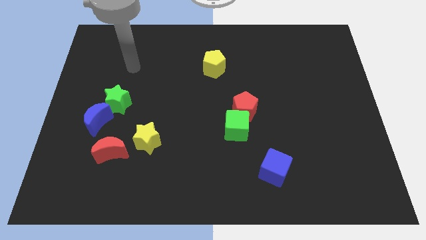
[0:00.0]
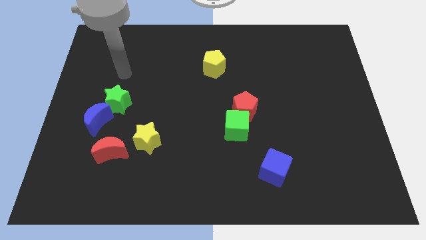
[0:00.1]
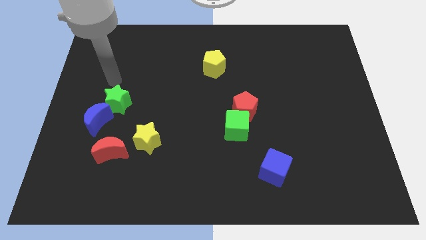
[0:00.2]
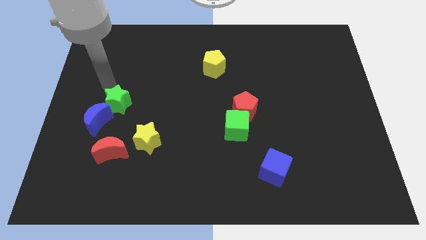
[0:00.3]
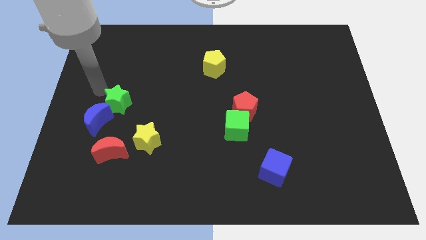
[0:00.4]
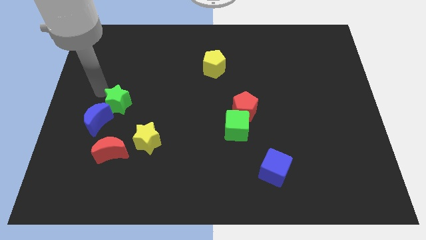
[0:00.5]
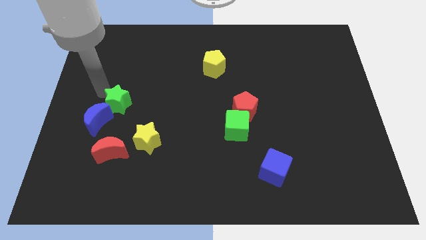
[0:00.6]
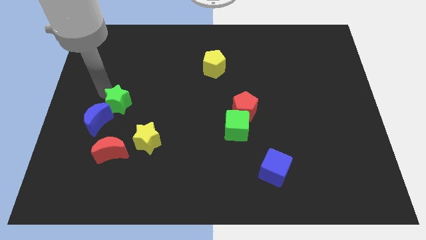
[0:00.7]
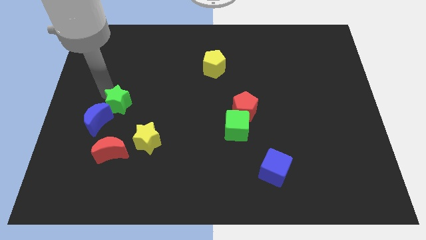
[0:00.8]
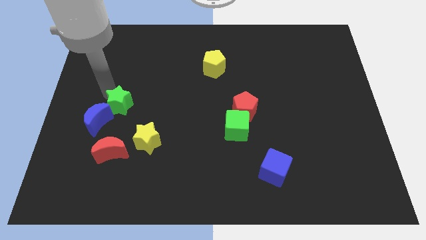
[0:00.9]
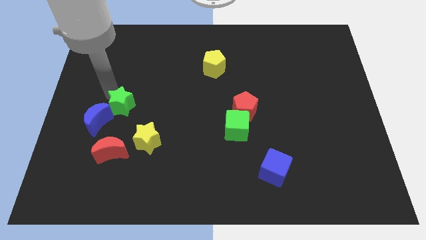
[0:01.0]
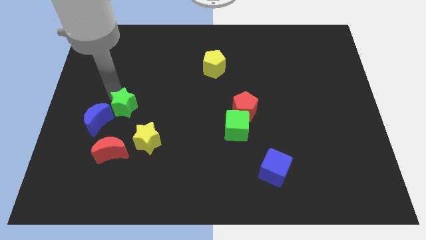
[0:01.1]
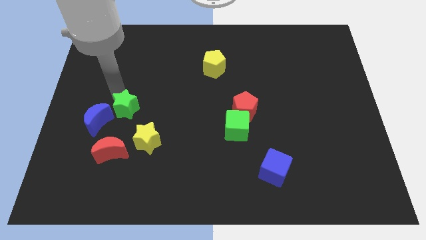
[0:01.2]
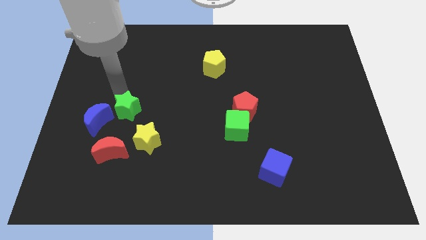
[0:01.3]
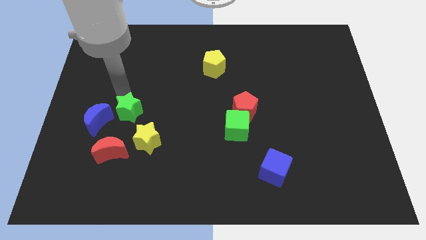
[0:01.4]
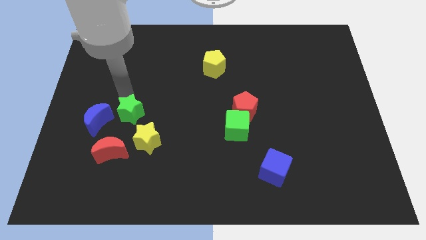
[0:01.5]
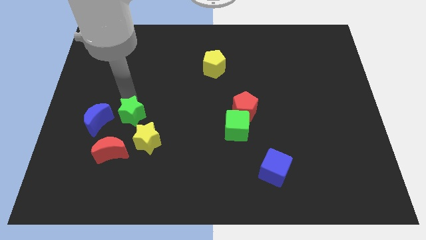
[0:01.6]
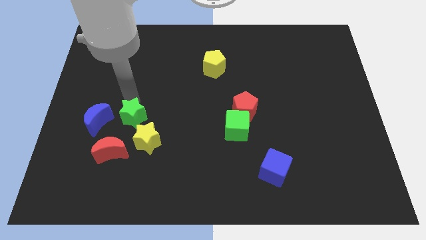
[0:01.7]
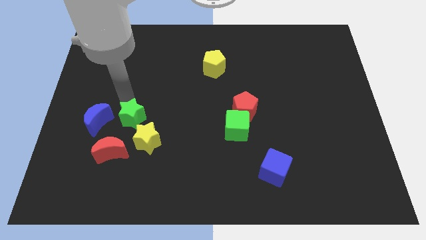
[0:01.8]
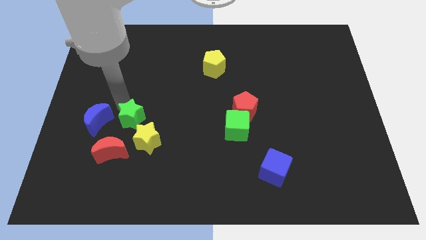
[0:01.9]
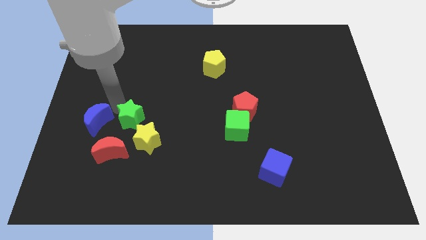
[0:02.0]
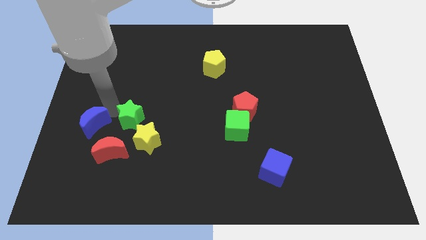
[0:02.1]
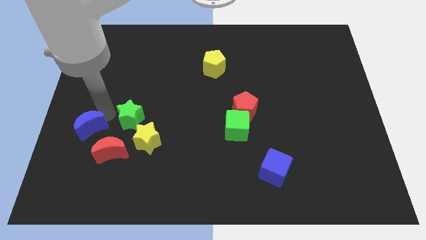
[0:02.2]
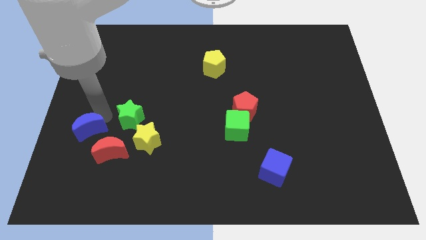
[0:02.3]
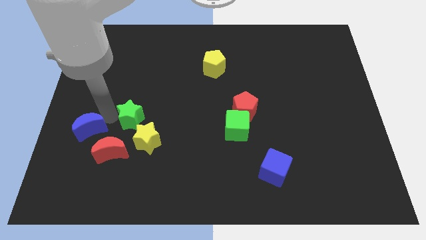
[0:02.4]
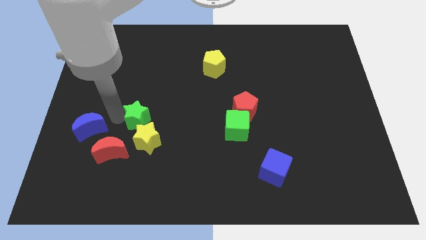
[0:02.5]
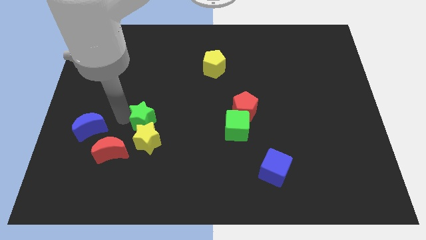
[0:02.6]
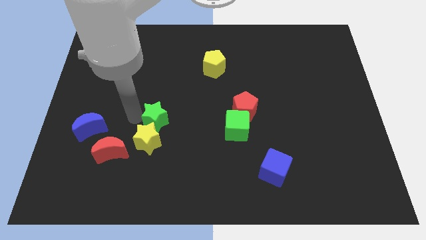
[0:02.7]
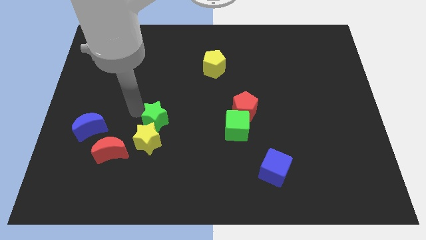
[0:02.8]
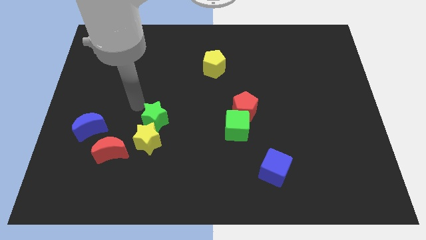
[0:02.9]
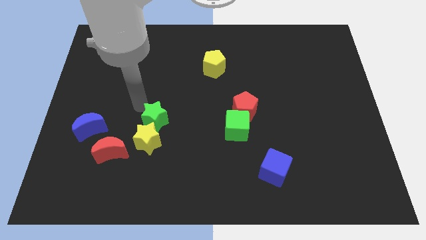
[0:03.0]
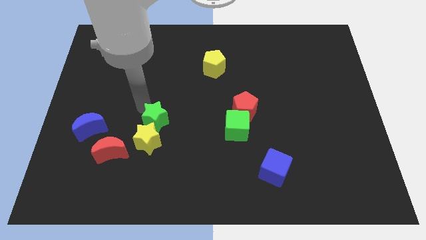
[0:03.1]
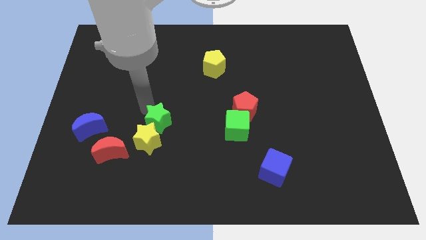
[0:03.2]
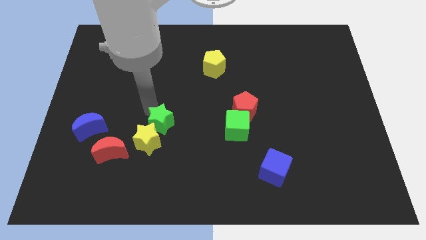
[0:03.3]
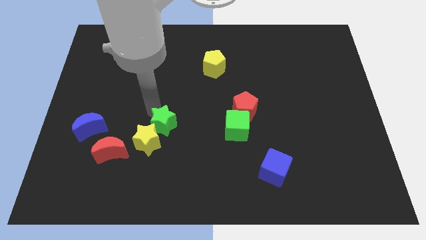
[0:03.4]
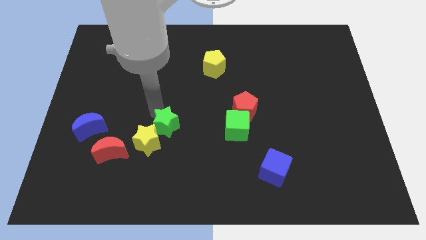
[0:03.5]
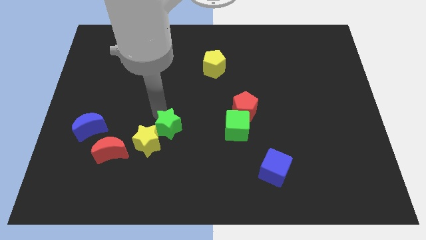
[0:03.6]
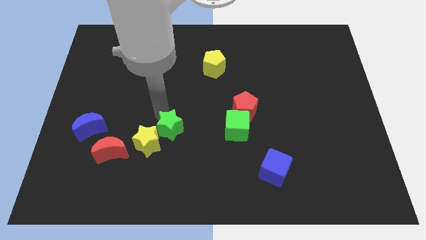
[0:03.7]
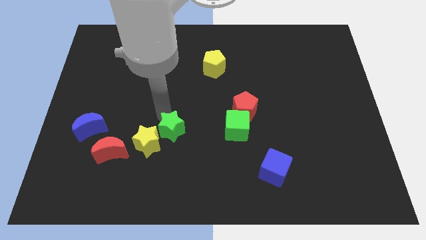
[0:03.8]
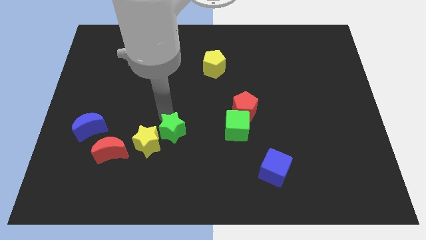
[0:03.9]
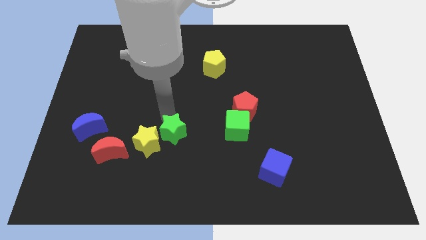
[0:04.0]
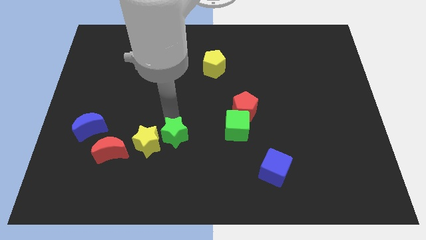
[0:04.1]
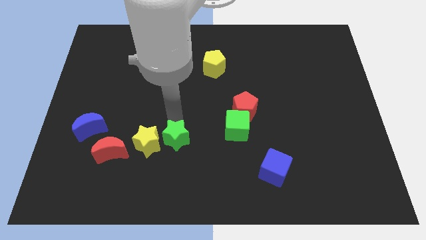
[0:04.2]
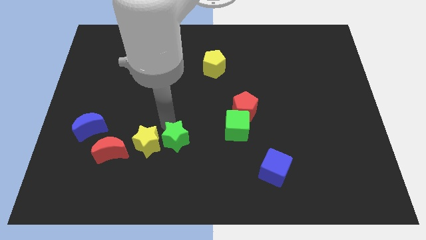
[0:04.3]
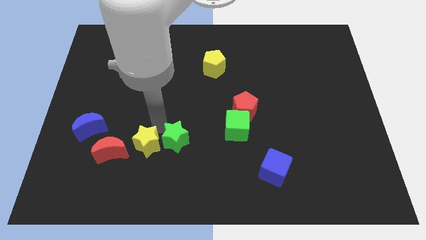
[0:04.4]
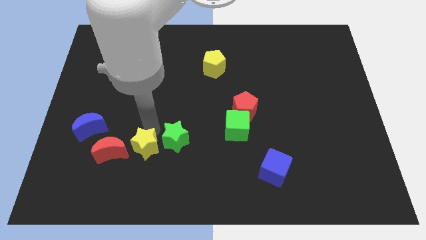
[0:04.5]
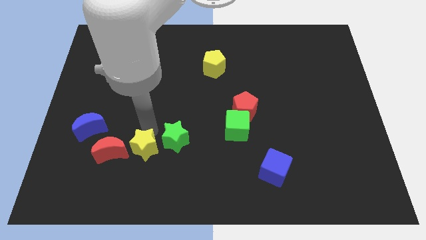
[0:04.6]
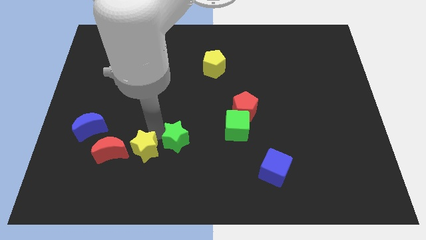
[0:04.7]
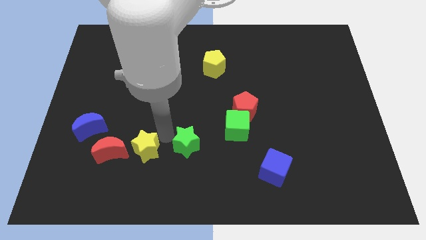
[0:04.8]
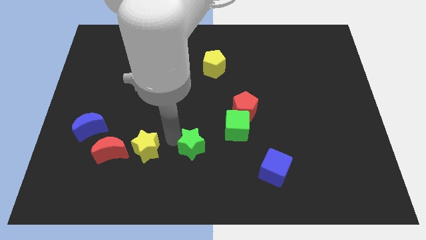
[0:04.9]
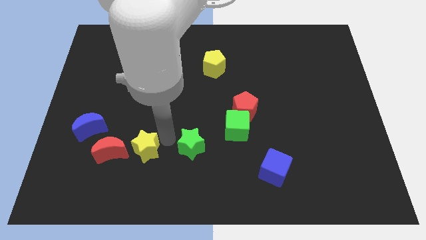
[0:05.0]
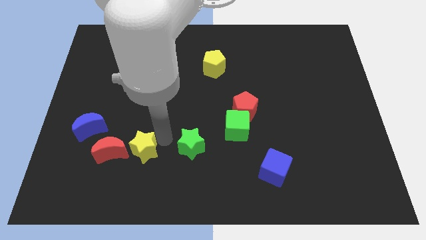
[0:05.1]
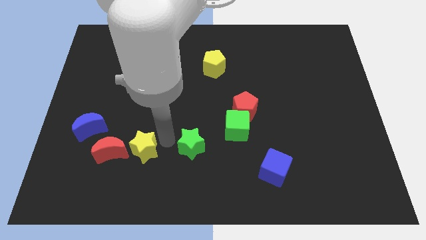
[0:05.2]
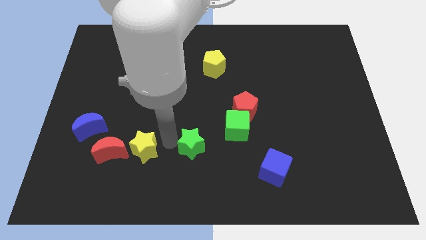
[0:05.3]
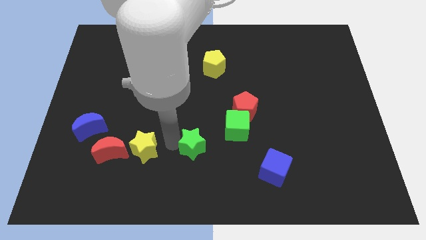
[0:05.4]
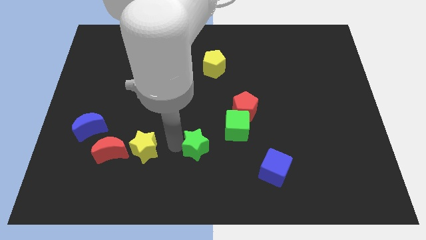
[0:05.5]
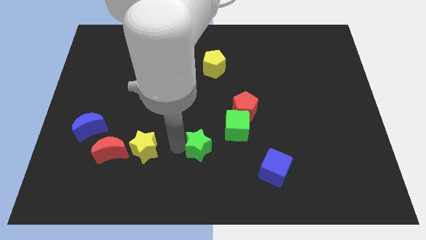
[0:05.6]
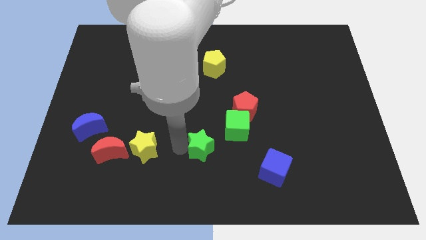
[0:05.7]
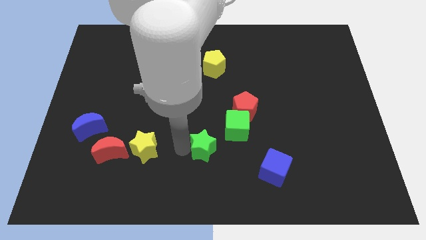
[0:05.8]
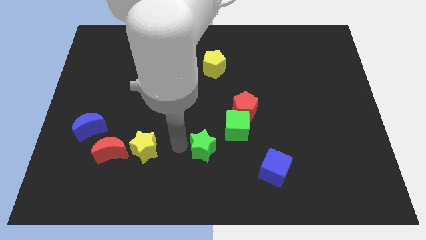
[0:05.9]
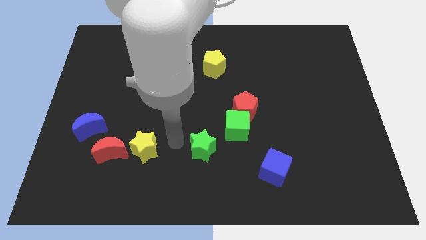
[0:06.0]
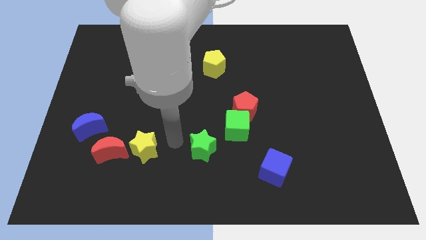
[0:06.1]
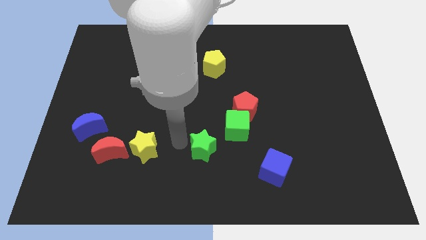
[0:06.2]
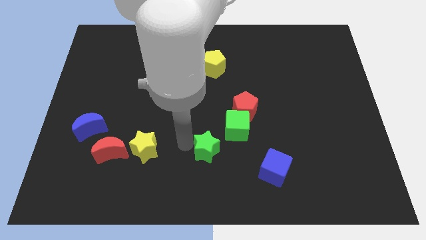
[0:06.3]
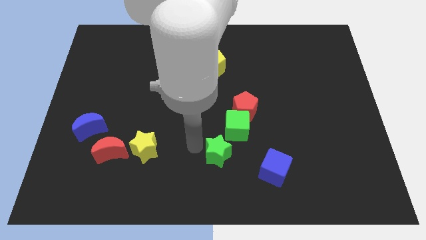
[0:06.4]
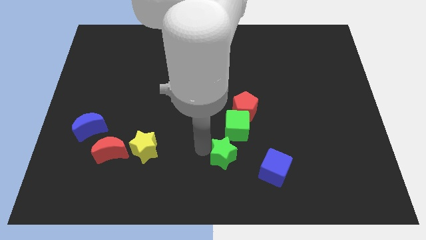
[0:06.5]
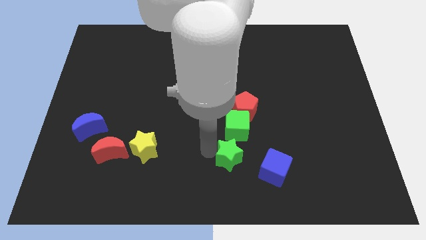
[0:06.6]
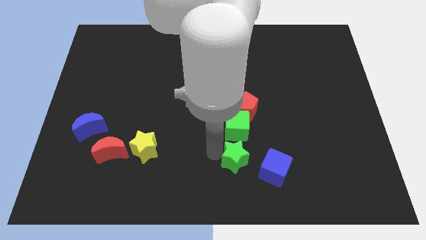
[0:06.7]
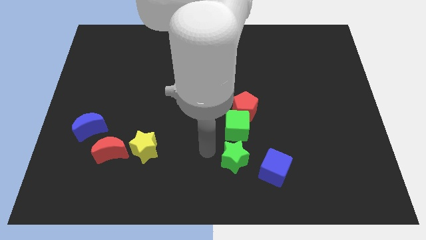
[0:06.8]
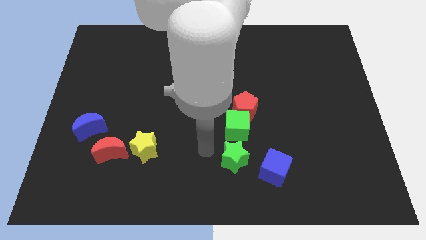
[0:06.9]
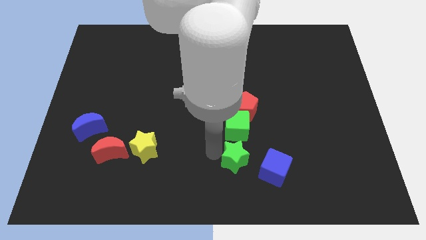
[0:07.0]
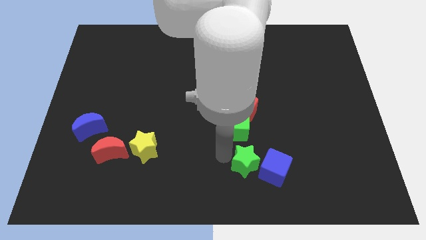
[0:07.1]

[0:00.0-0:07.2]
slide the green star to the blue cube
